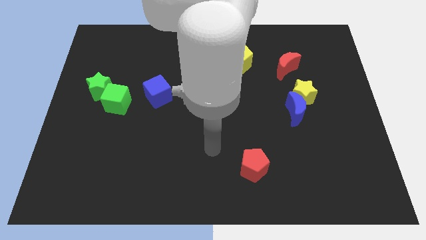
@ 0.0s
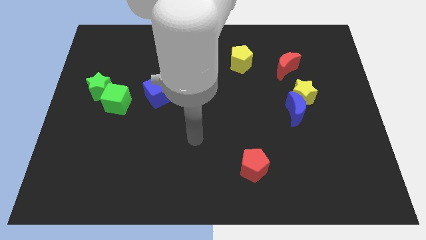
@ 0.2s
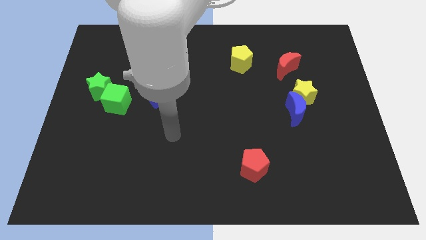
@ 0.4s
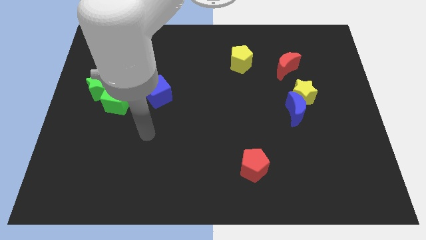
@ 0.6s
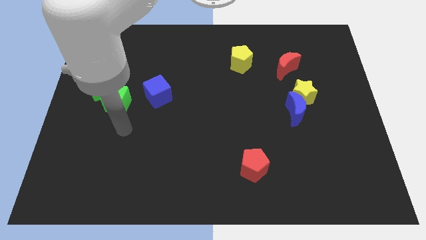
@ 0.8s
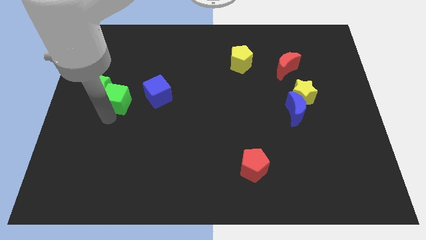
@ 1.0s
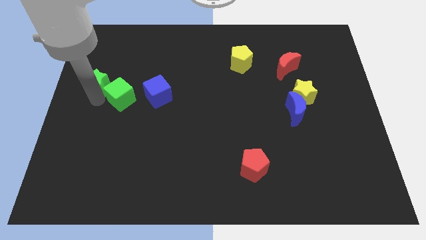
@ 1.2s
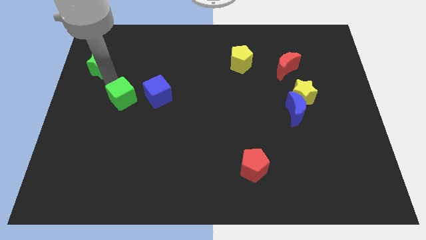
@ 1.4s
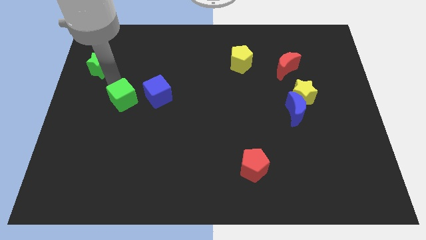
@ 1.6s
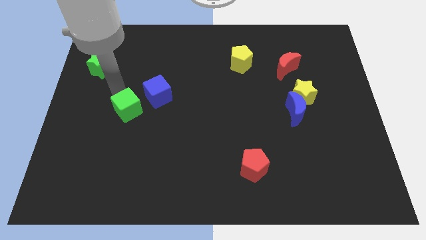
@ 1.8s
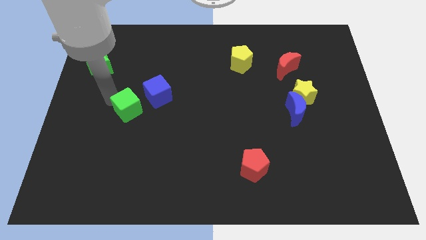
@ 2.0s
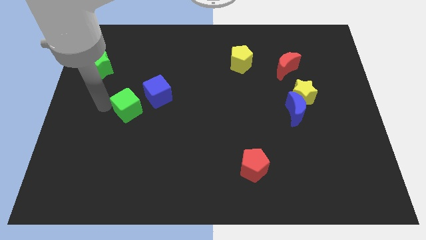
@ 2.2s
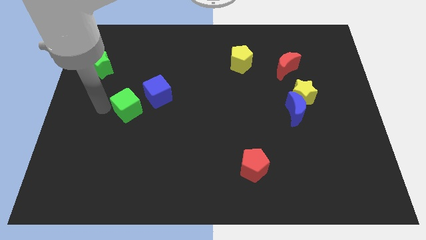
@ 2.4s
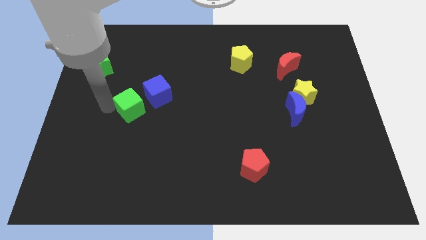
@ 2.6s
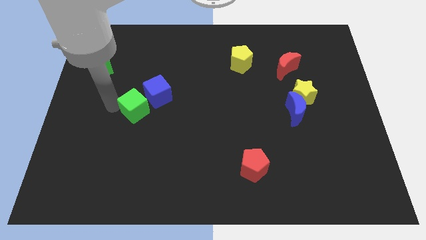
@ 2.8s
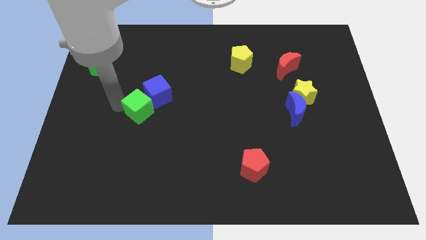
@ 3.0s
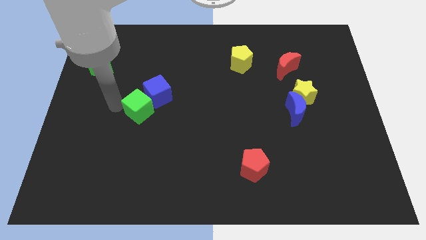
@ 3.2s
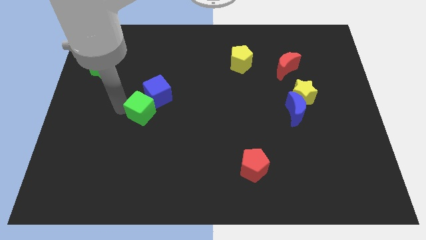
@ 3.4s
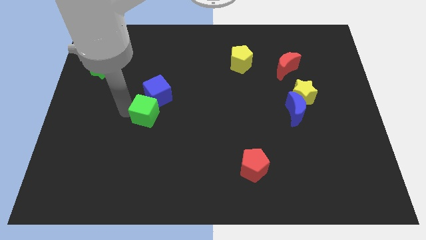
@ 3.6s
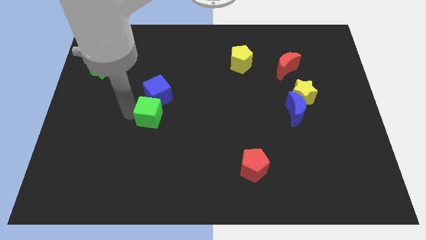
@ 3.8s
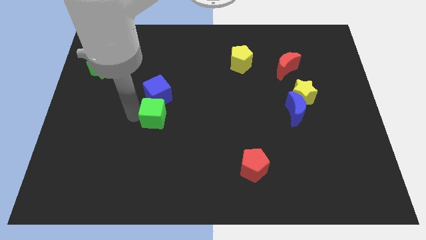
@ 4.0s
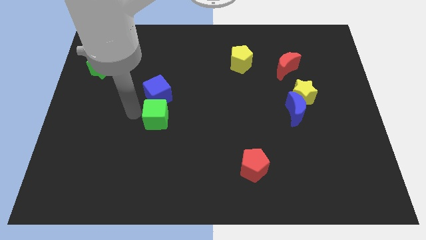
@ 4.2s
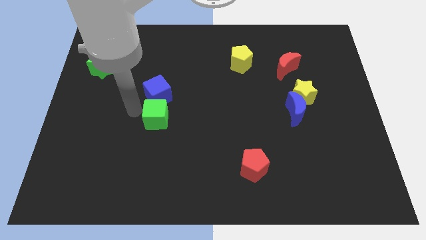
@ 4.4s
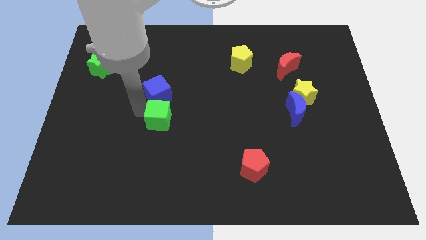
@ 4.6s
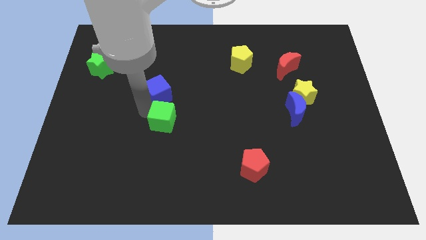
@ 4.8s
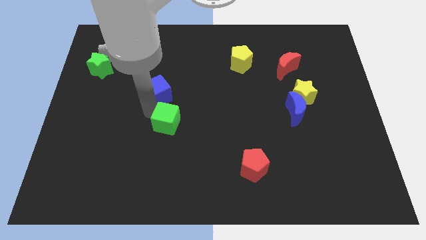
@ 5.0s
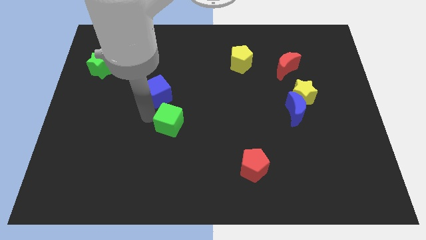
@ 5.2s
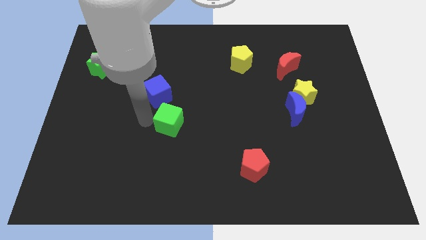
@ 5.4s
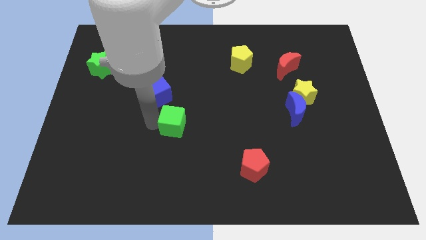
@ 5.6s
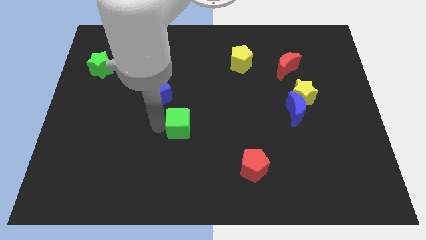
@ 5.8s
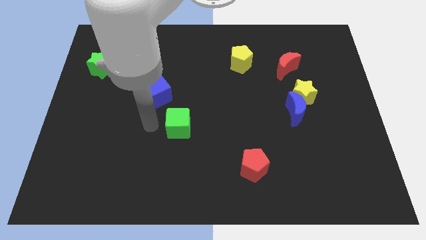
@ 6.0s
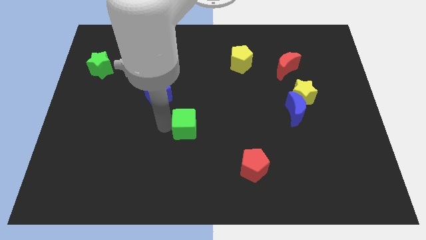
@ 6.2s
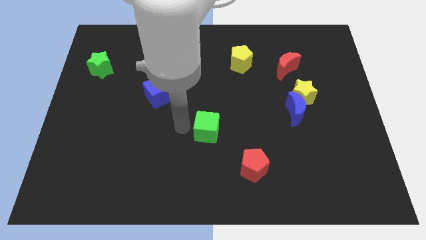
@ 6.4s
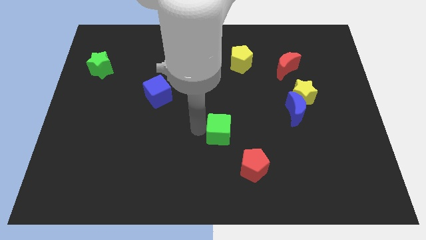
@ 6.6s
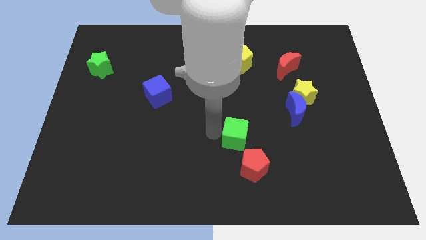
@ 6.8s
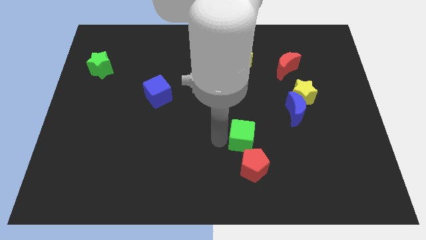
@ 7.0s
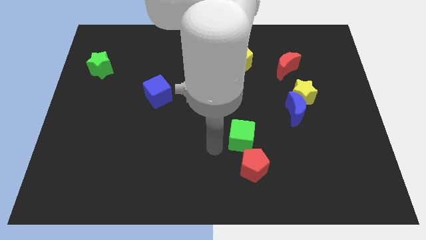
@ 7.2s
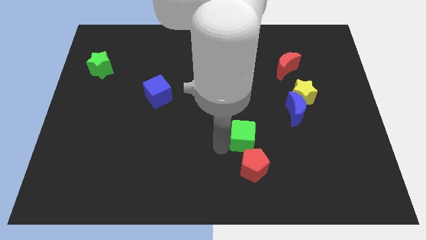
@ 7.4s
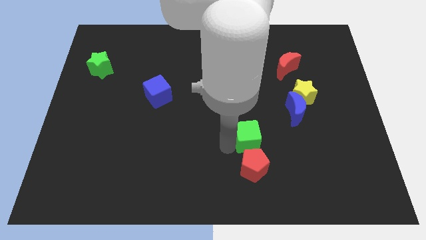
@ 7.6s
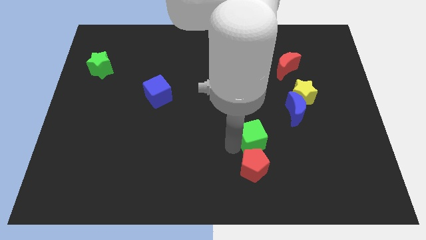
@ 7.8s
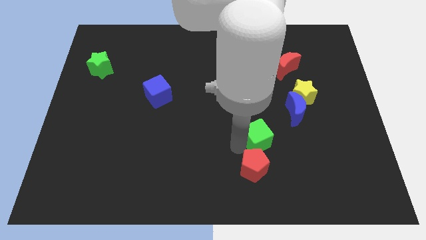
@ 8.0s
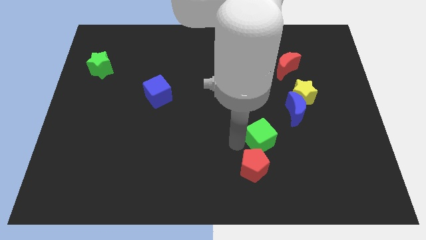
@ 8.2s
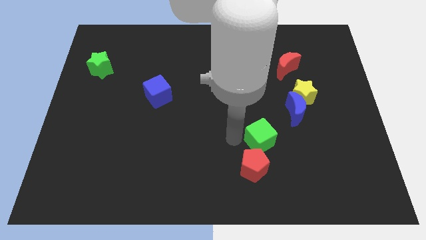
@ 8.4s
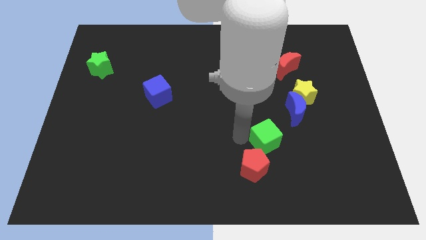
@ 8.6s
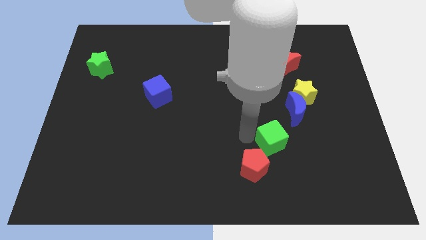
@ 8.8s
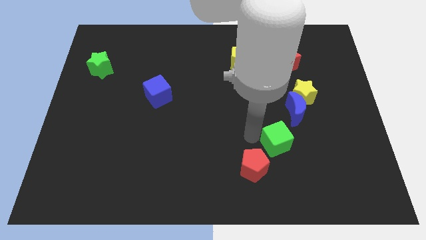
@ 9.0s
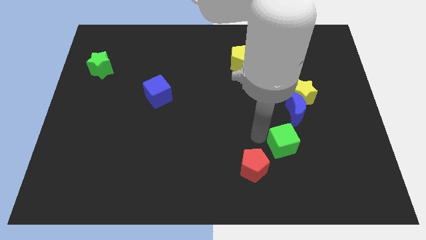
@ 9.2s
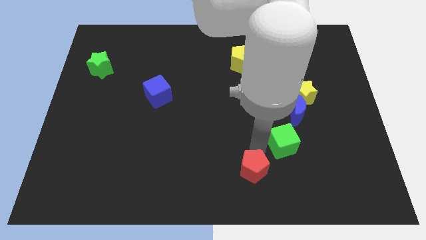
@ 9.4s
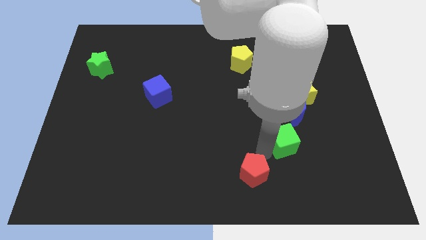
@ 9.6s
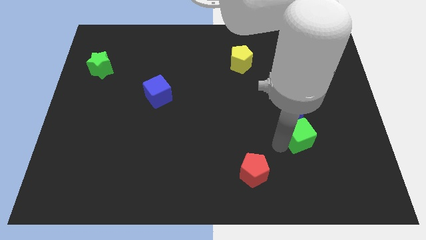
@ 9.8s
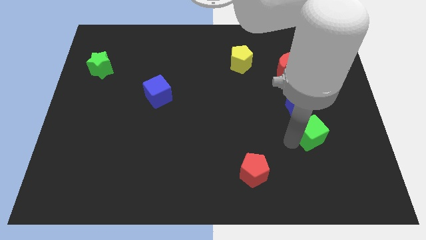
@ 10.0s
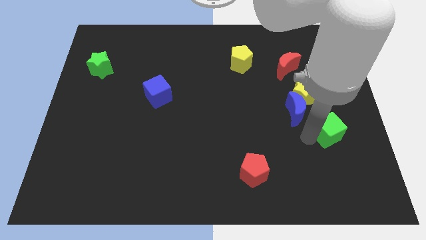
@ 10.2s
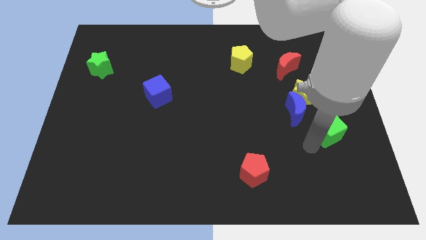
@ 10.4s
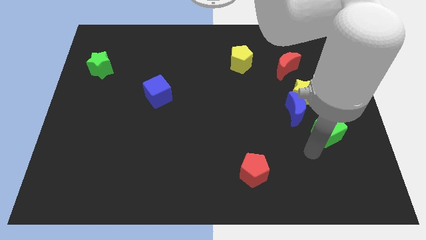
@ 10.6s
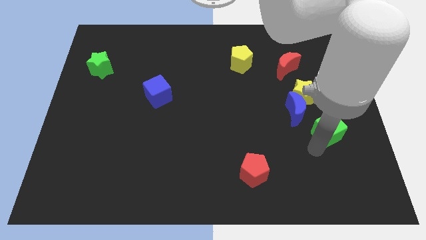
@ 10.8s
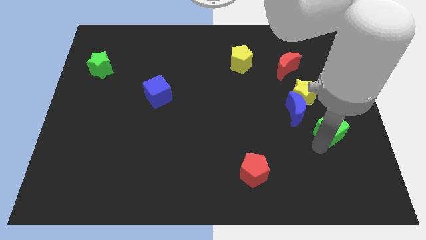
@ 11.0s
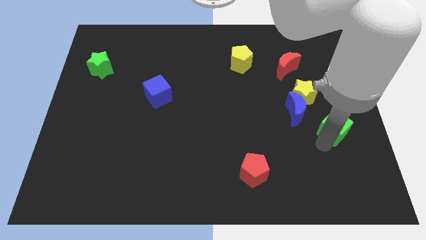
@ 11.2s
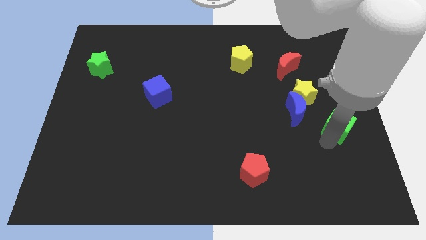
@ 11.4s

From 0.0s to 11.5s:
move the green cube to the right side of the board

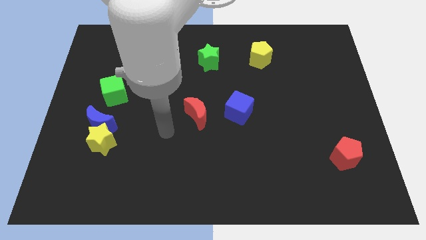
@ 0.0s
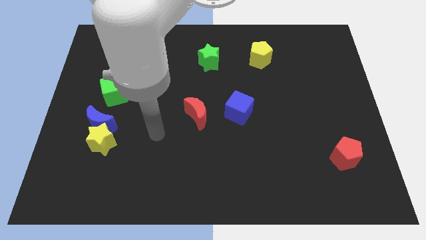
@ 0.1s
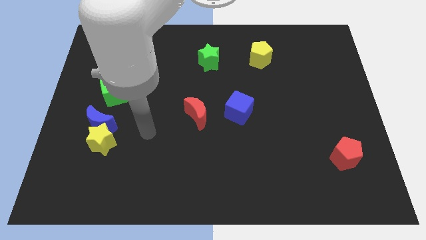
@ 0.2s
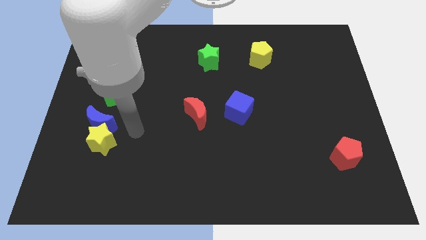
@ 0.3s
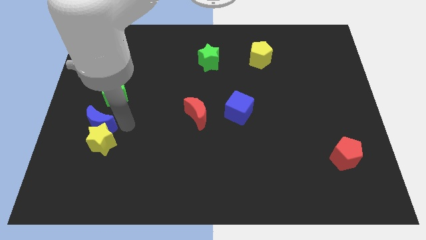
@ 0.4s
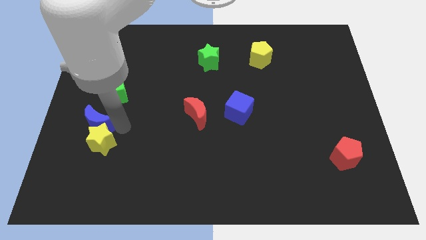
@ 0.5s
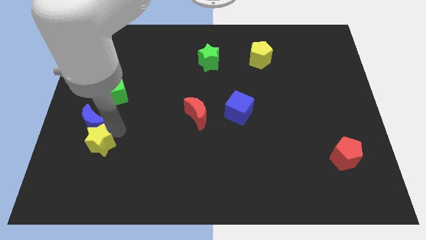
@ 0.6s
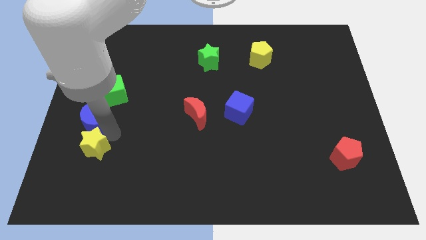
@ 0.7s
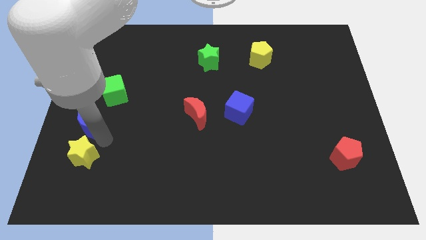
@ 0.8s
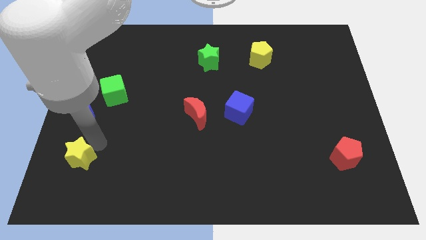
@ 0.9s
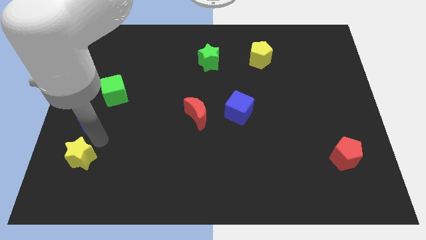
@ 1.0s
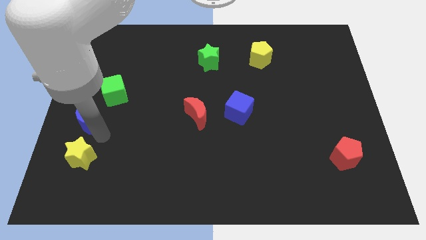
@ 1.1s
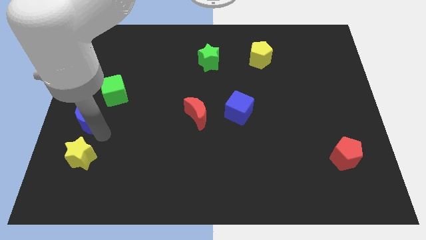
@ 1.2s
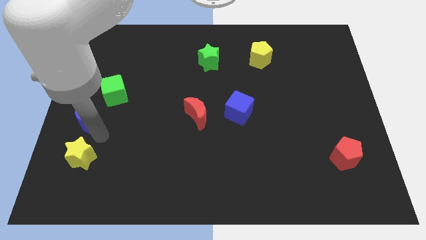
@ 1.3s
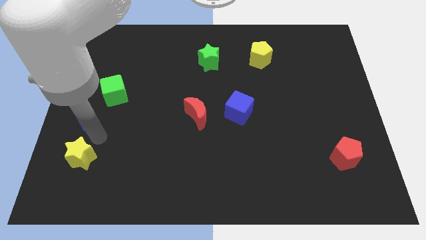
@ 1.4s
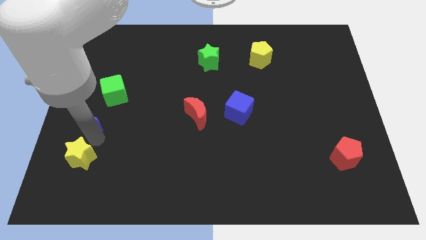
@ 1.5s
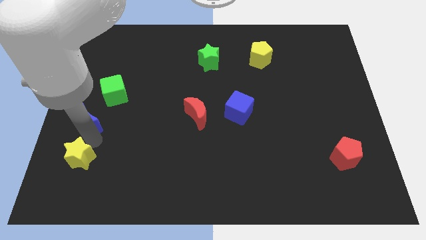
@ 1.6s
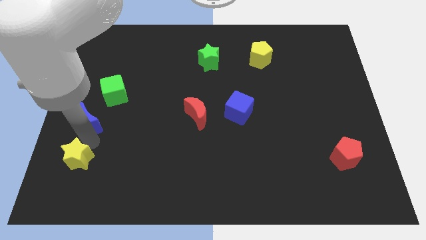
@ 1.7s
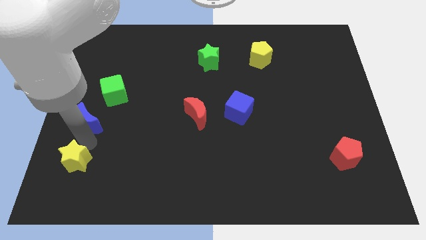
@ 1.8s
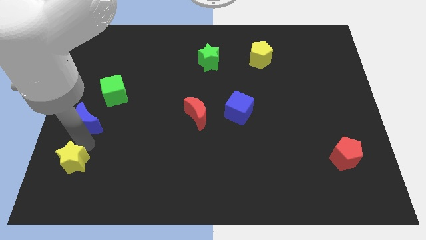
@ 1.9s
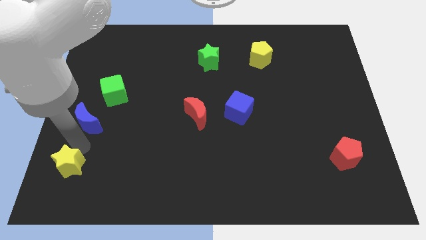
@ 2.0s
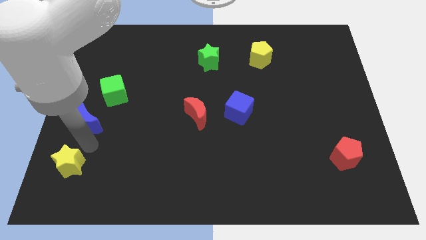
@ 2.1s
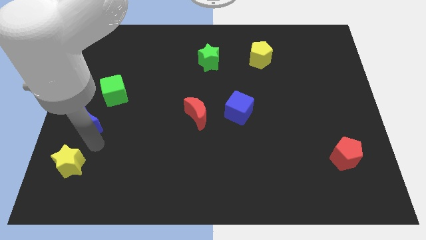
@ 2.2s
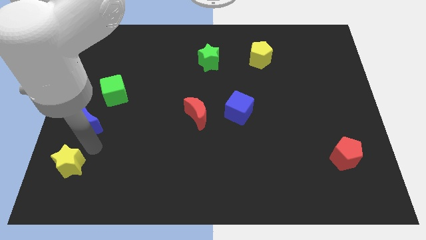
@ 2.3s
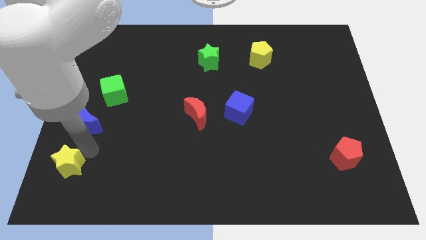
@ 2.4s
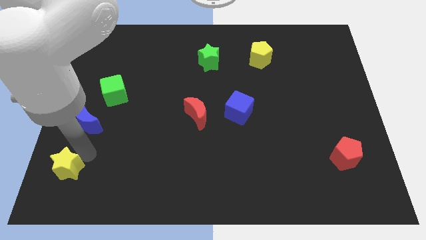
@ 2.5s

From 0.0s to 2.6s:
put the yellow star to the bottom left of the board
